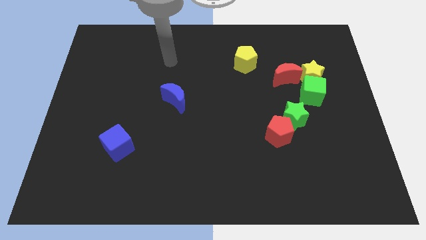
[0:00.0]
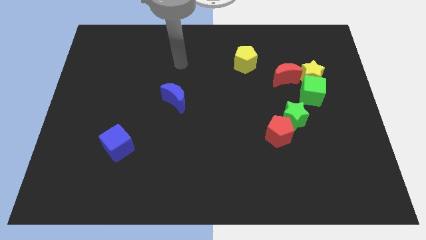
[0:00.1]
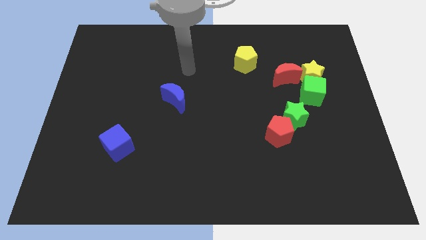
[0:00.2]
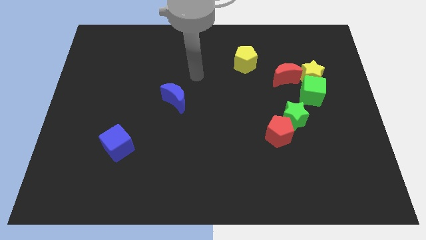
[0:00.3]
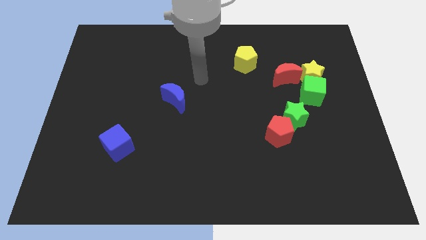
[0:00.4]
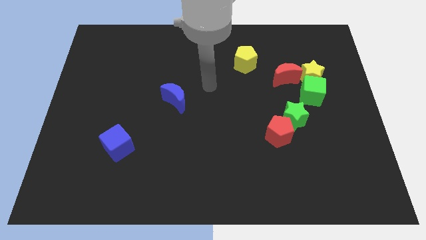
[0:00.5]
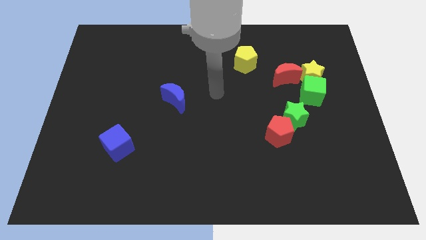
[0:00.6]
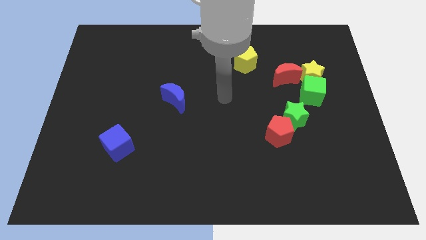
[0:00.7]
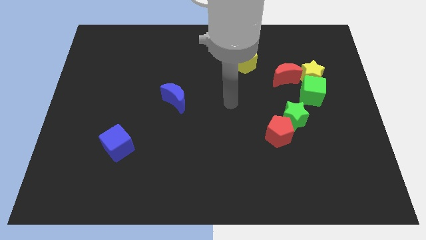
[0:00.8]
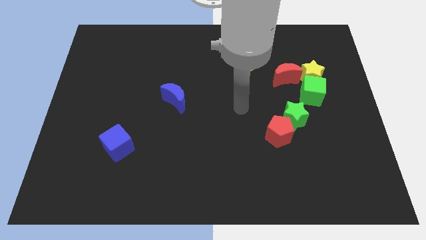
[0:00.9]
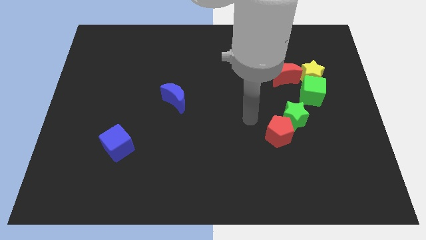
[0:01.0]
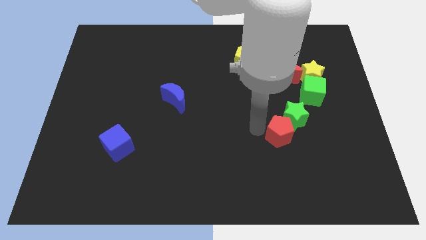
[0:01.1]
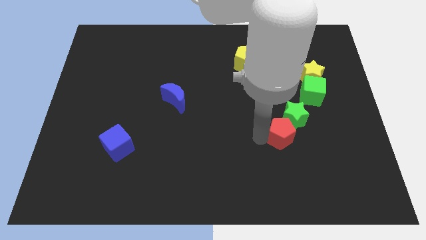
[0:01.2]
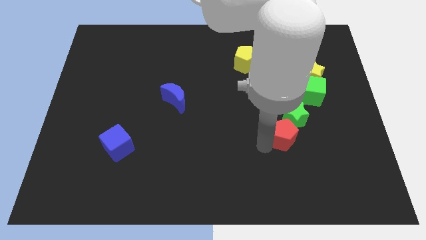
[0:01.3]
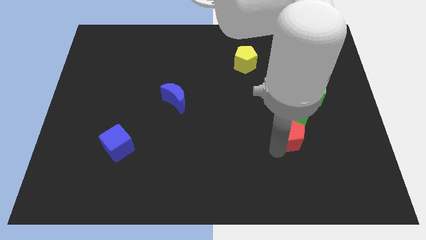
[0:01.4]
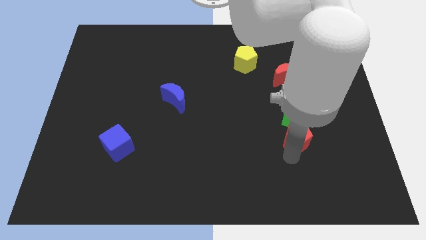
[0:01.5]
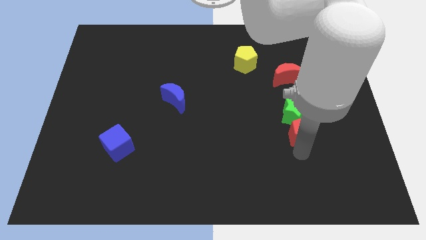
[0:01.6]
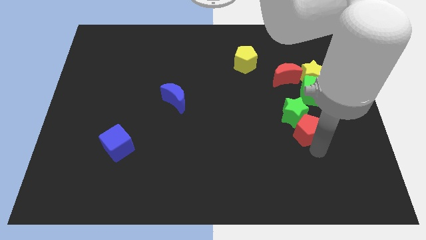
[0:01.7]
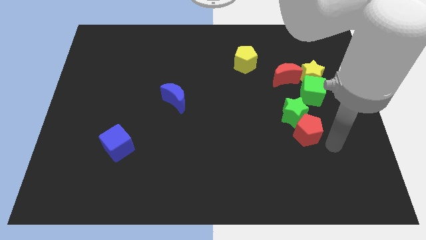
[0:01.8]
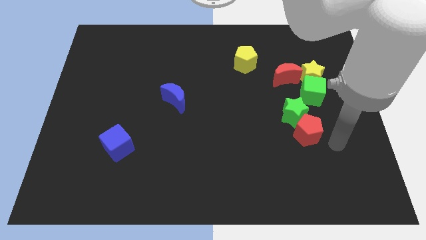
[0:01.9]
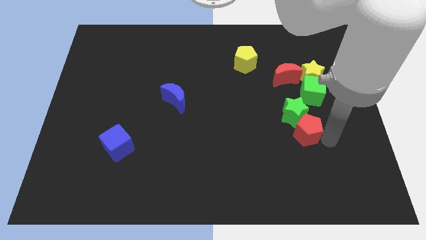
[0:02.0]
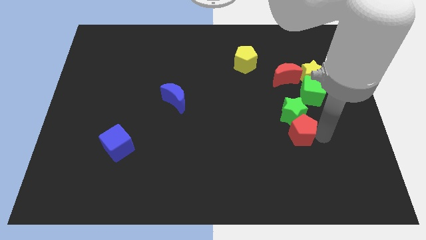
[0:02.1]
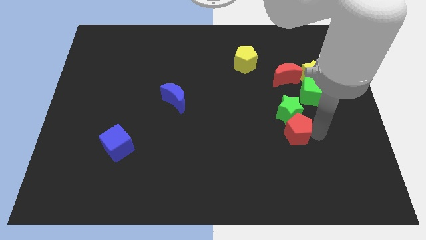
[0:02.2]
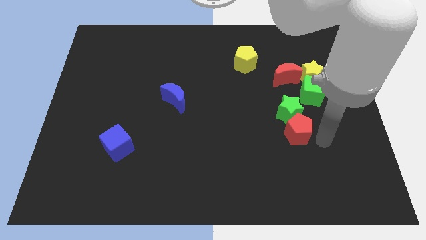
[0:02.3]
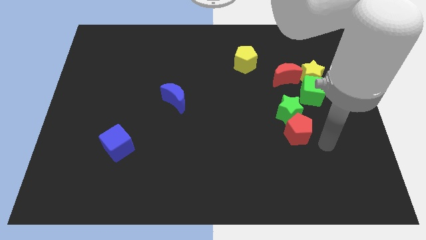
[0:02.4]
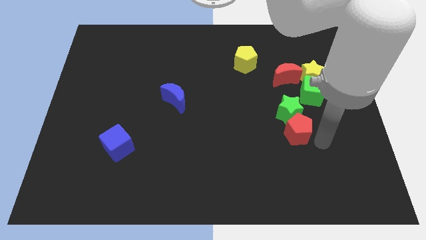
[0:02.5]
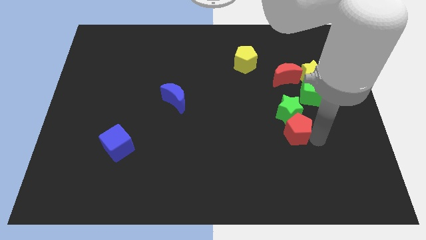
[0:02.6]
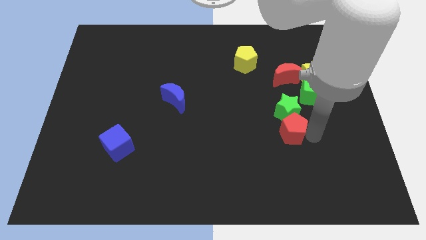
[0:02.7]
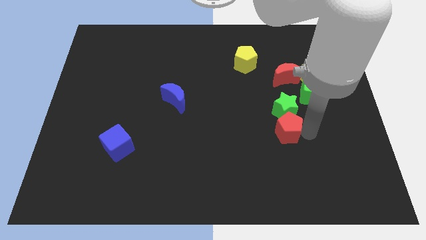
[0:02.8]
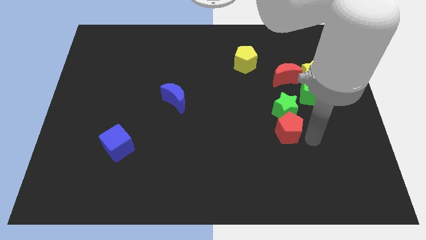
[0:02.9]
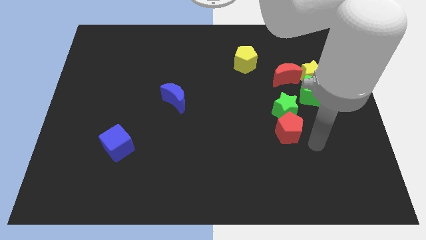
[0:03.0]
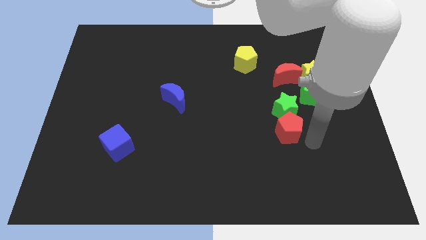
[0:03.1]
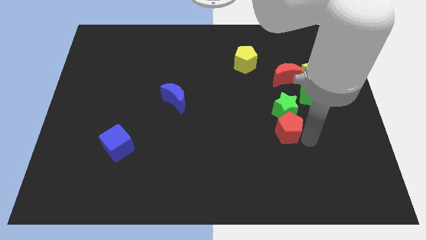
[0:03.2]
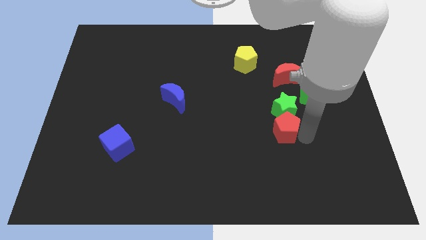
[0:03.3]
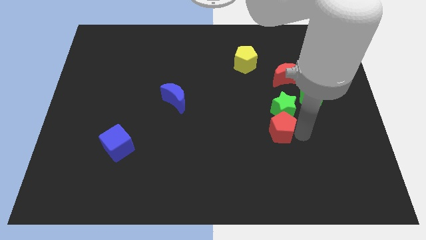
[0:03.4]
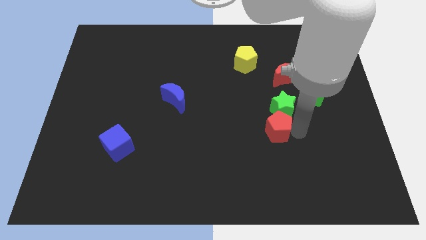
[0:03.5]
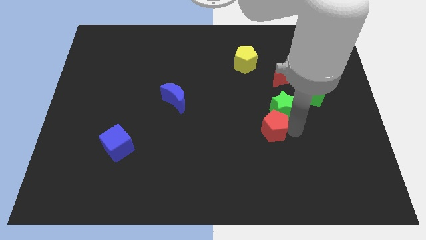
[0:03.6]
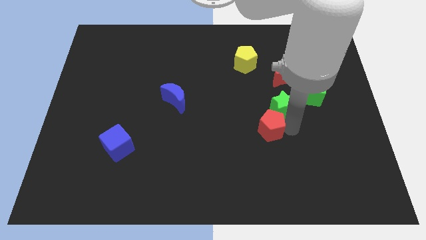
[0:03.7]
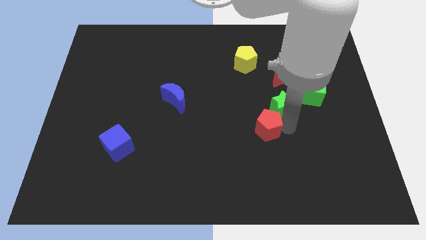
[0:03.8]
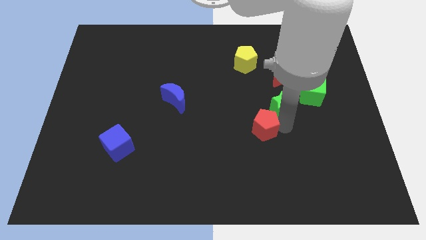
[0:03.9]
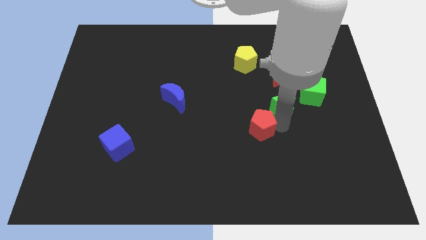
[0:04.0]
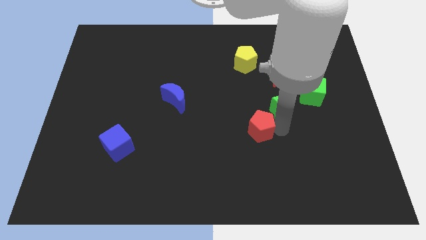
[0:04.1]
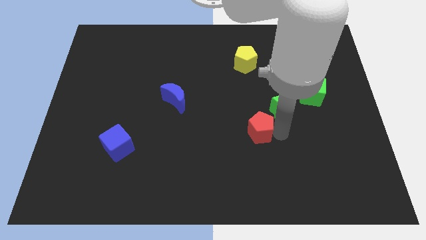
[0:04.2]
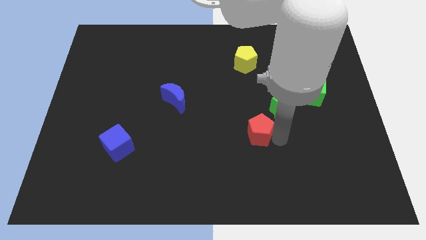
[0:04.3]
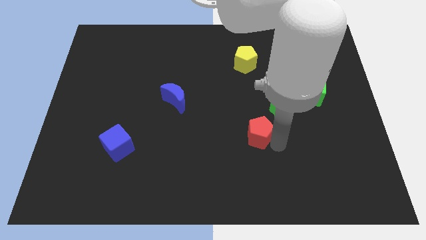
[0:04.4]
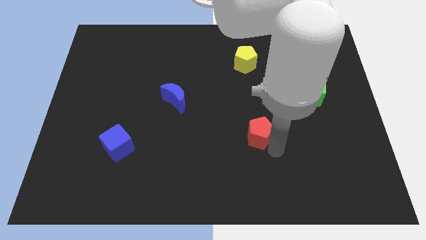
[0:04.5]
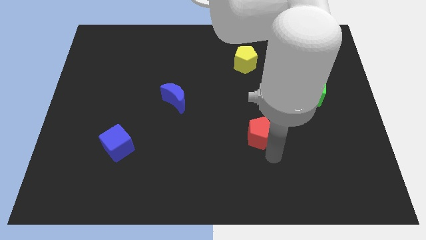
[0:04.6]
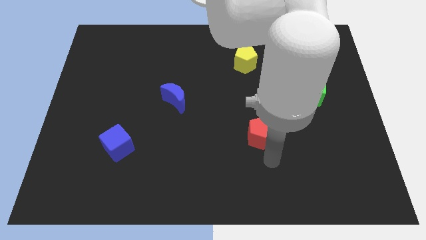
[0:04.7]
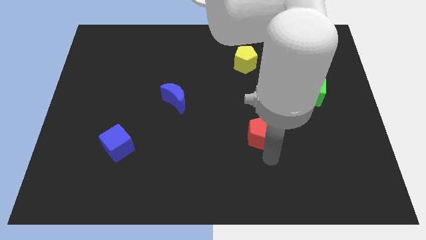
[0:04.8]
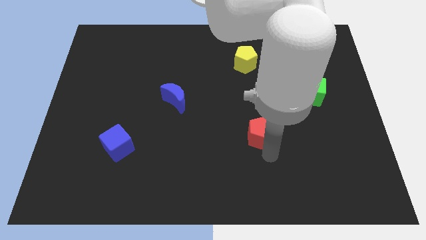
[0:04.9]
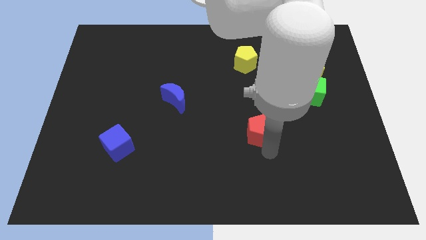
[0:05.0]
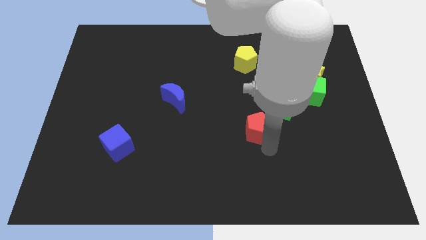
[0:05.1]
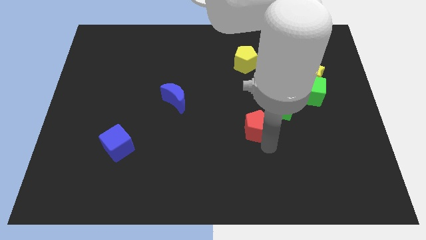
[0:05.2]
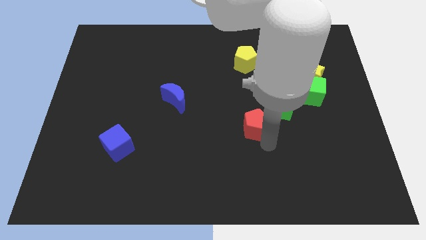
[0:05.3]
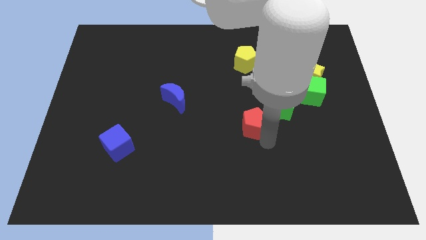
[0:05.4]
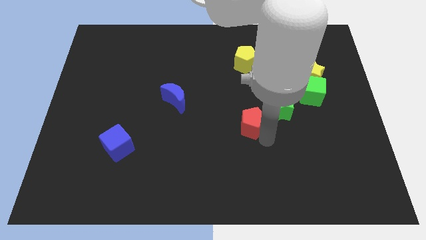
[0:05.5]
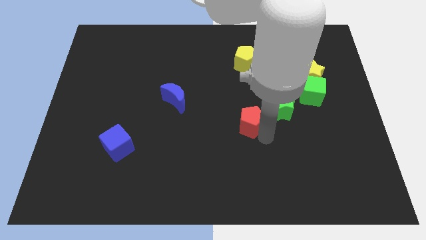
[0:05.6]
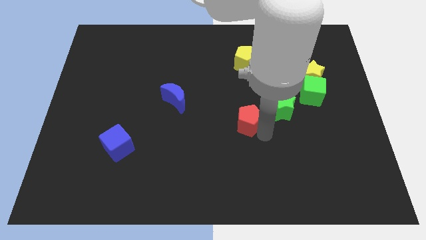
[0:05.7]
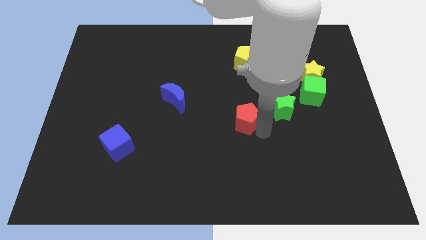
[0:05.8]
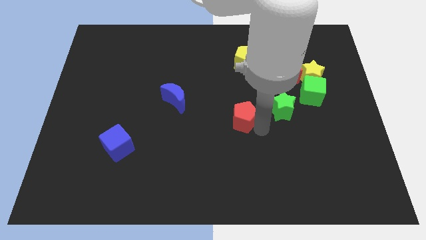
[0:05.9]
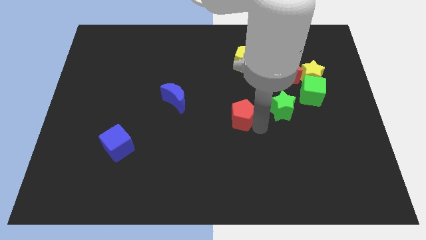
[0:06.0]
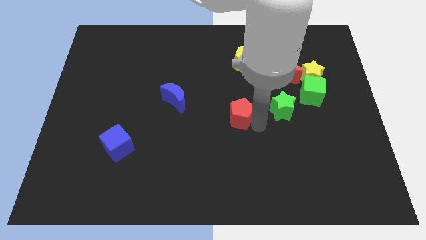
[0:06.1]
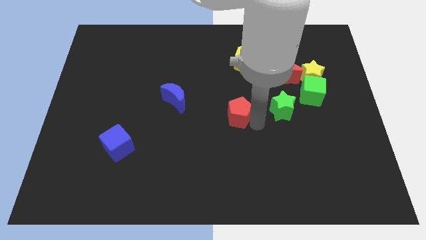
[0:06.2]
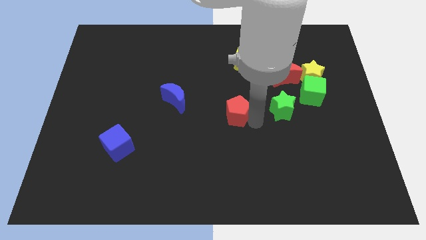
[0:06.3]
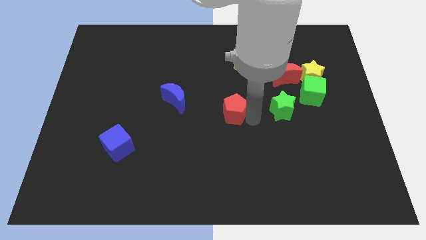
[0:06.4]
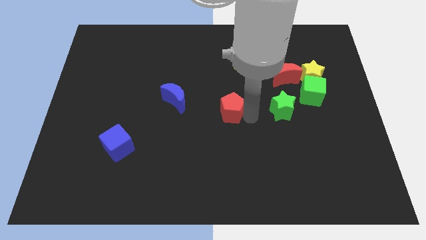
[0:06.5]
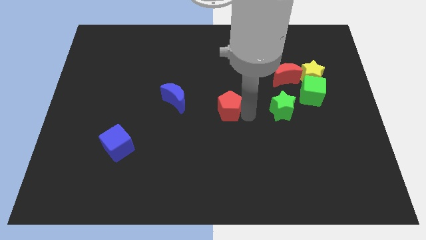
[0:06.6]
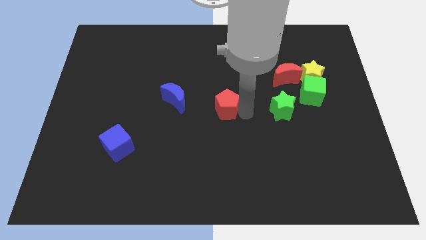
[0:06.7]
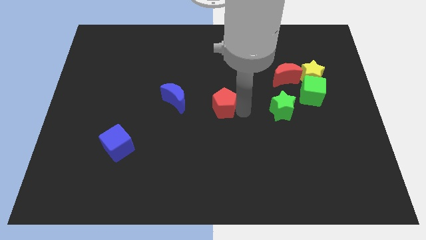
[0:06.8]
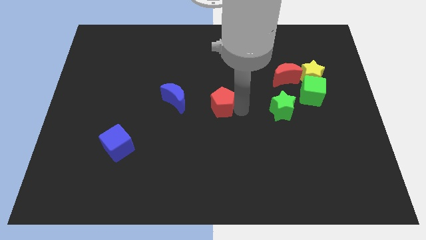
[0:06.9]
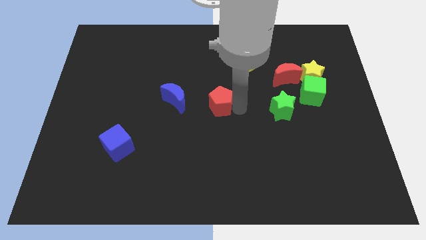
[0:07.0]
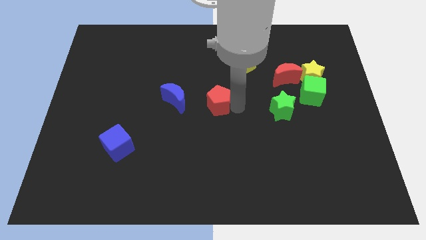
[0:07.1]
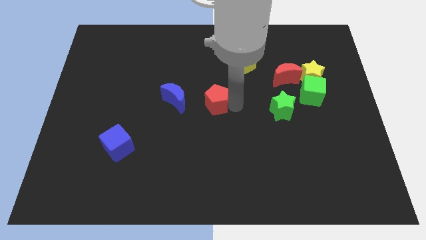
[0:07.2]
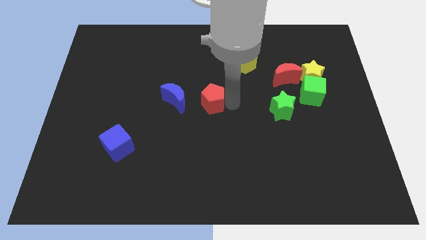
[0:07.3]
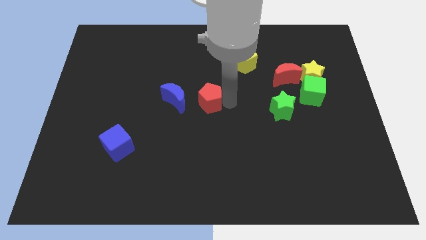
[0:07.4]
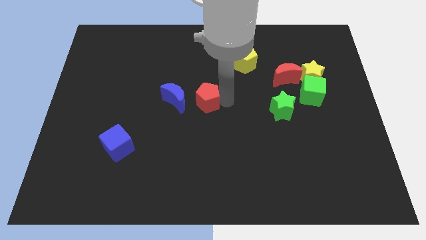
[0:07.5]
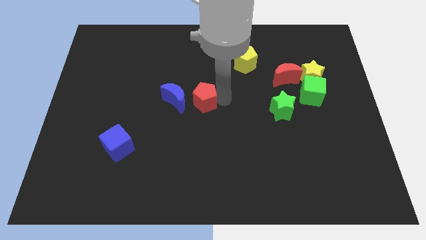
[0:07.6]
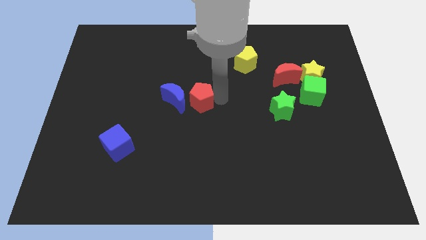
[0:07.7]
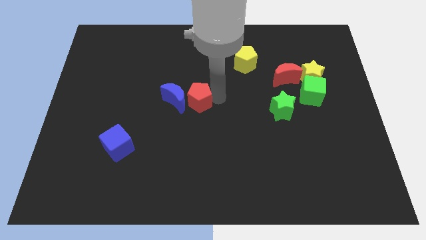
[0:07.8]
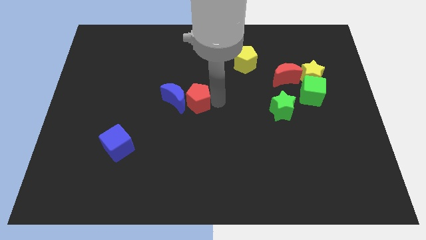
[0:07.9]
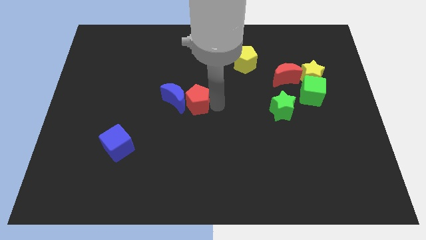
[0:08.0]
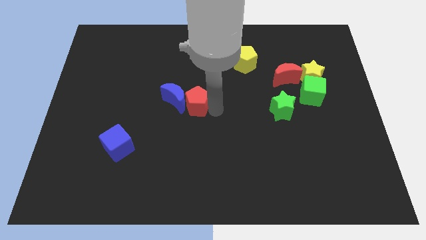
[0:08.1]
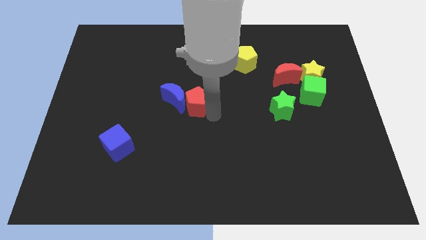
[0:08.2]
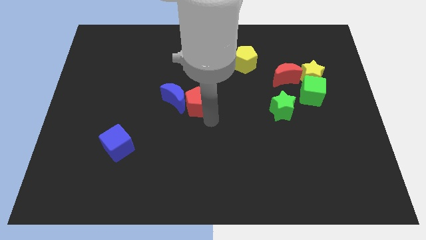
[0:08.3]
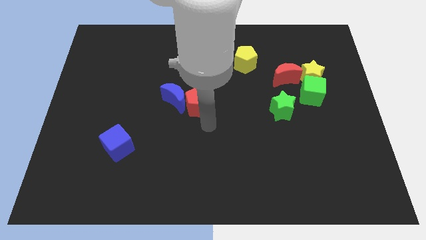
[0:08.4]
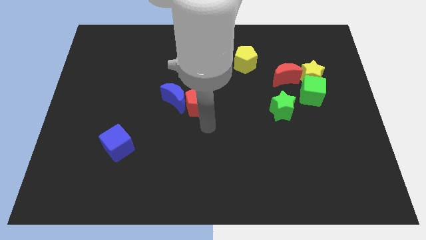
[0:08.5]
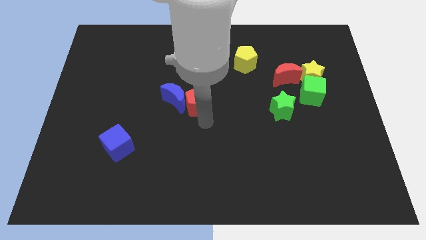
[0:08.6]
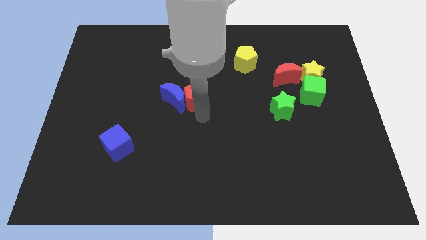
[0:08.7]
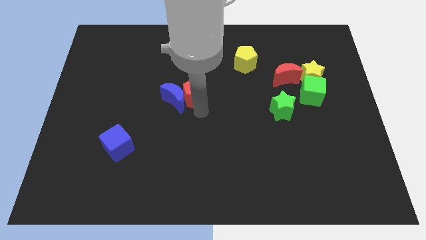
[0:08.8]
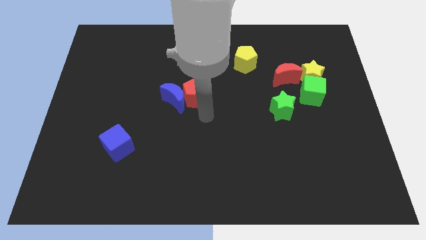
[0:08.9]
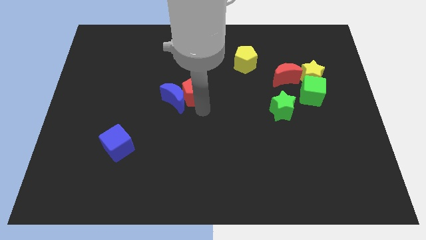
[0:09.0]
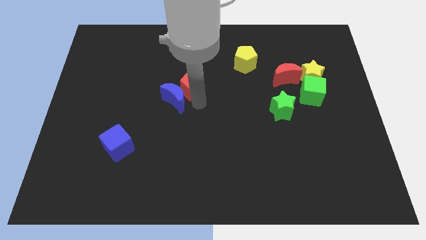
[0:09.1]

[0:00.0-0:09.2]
slide the red pentagon above the blue moon
